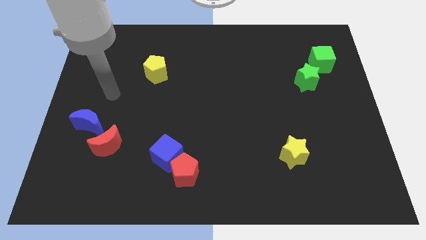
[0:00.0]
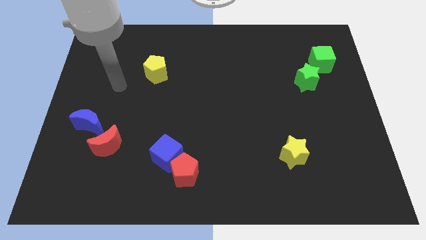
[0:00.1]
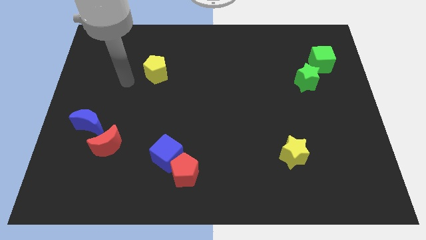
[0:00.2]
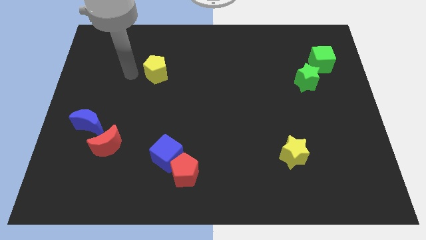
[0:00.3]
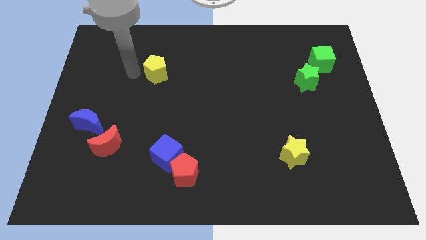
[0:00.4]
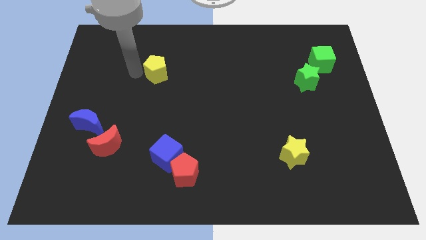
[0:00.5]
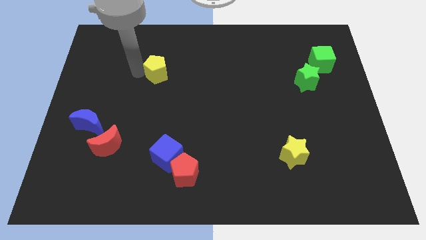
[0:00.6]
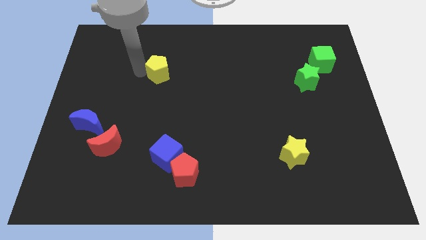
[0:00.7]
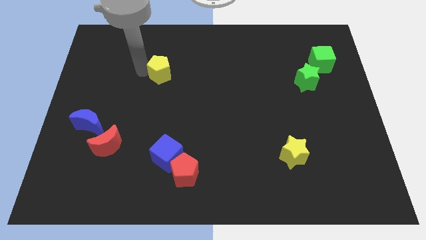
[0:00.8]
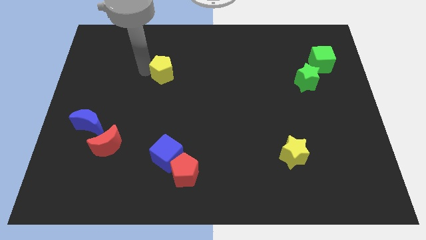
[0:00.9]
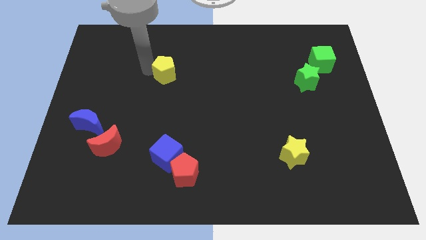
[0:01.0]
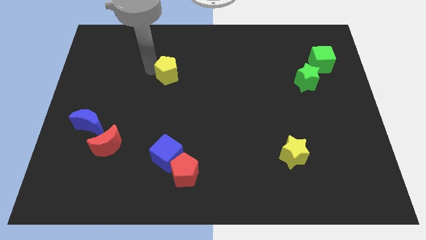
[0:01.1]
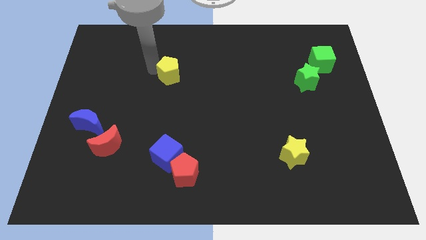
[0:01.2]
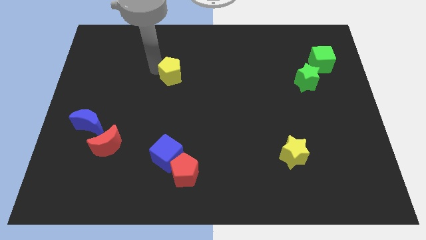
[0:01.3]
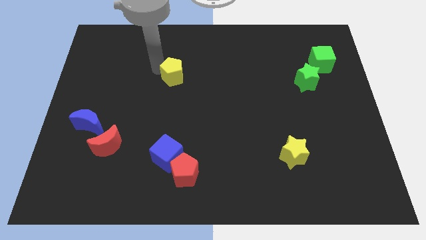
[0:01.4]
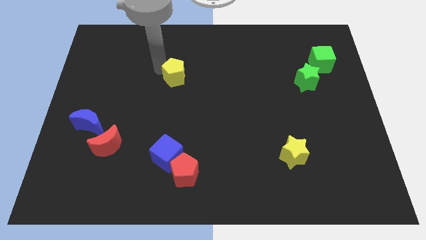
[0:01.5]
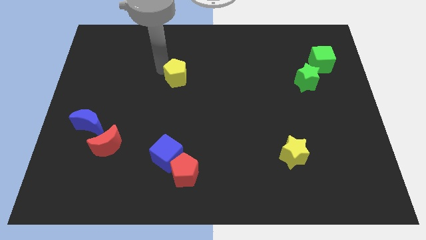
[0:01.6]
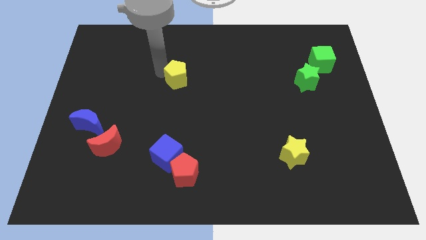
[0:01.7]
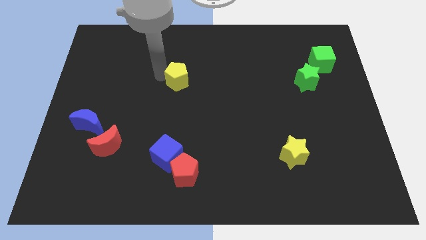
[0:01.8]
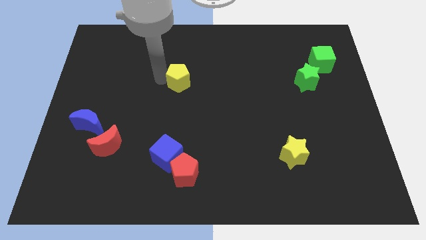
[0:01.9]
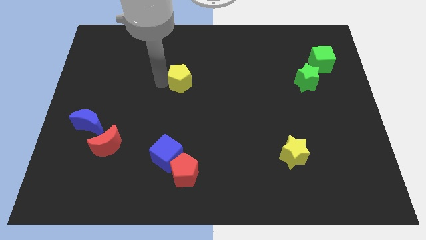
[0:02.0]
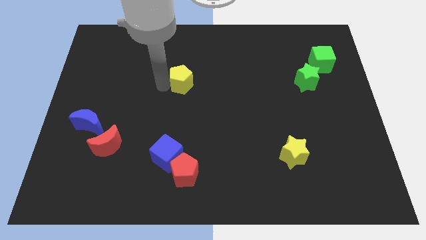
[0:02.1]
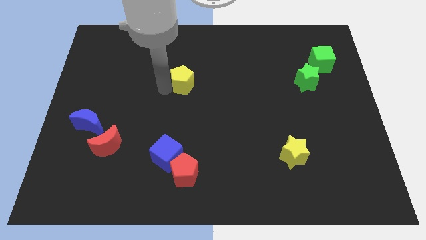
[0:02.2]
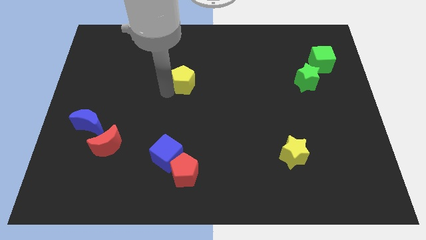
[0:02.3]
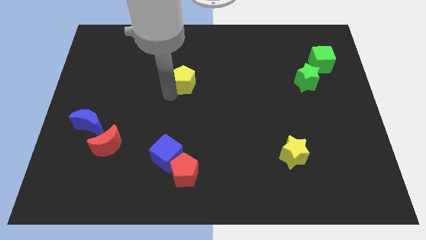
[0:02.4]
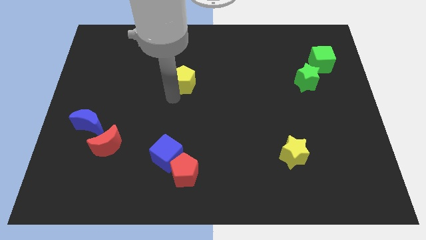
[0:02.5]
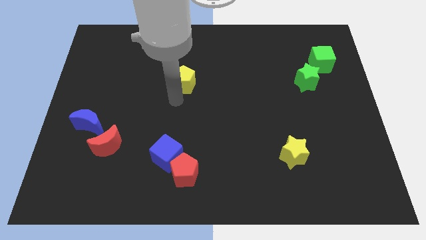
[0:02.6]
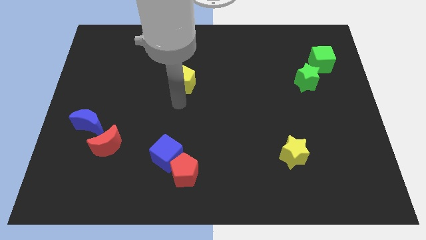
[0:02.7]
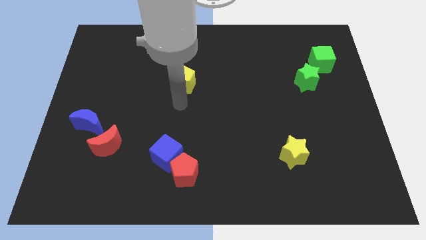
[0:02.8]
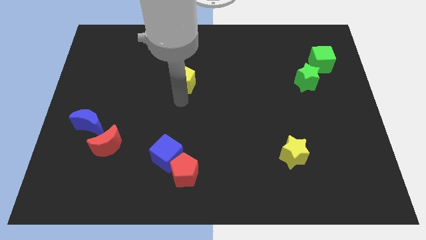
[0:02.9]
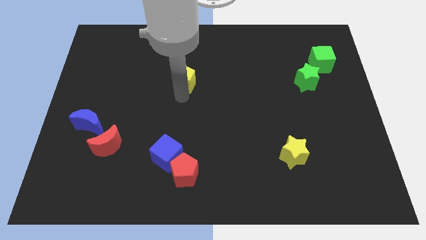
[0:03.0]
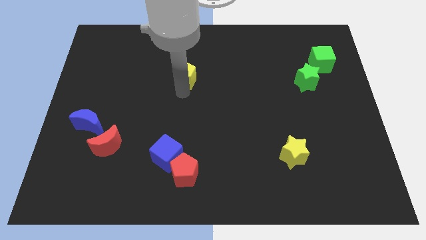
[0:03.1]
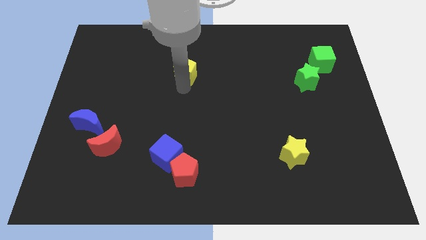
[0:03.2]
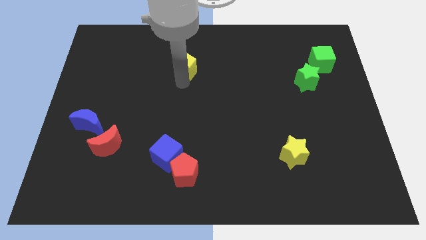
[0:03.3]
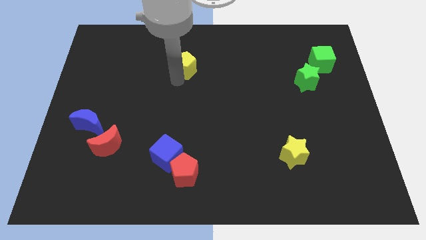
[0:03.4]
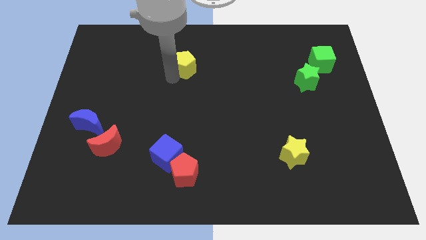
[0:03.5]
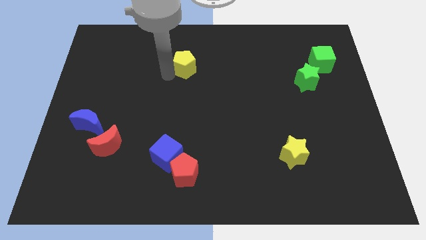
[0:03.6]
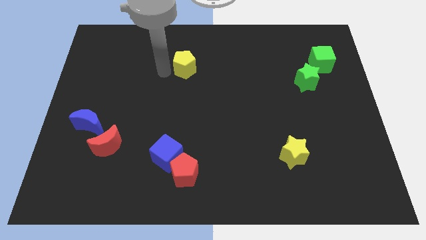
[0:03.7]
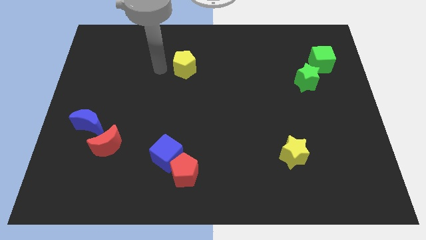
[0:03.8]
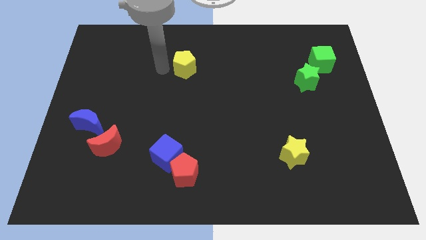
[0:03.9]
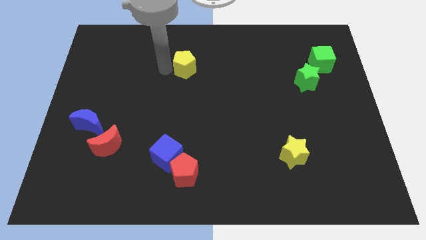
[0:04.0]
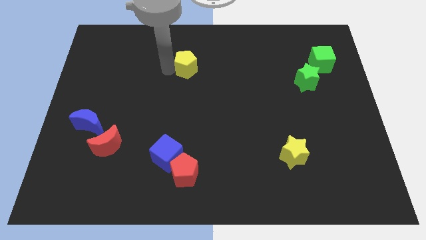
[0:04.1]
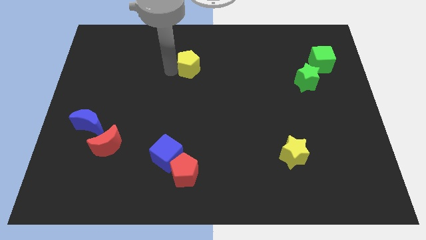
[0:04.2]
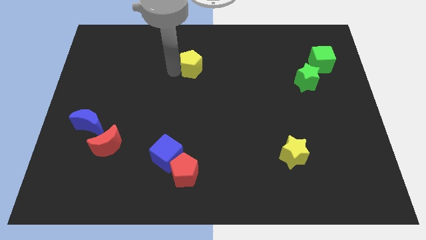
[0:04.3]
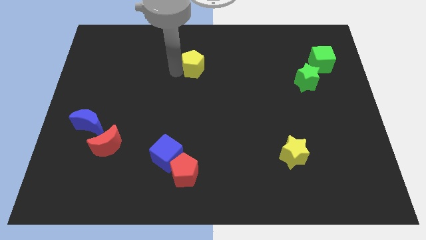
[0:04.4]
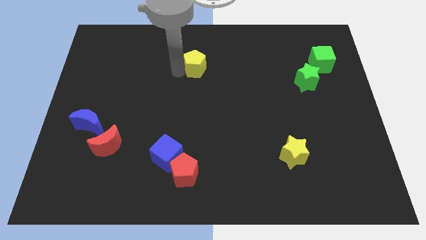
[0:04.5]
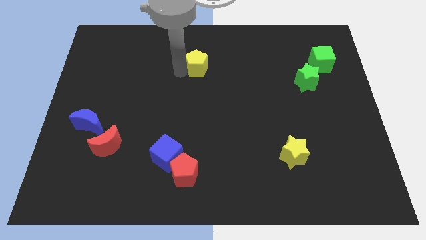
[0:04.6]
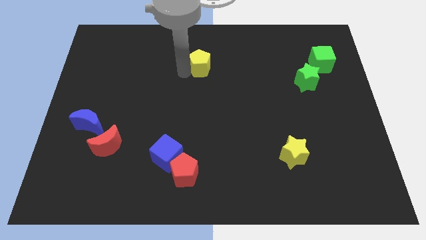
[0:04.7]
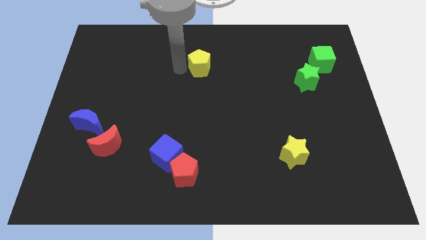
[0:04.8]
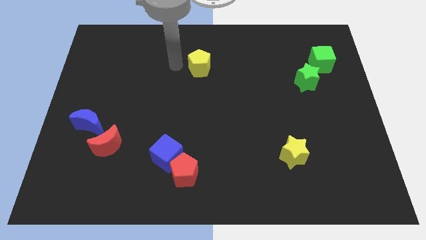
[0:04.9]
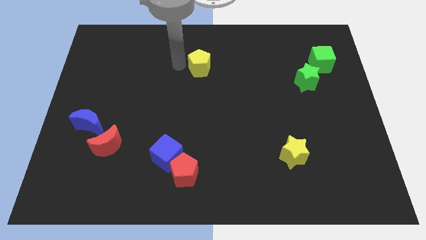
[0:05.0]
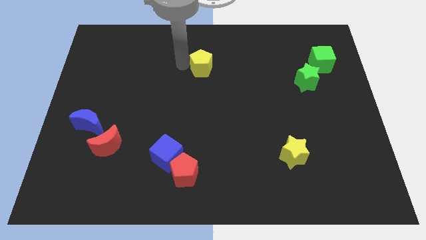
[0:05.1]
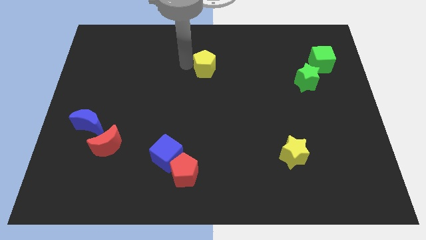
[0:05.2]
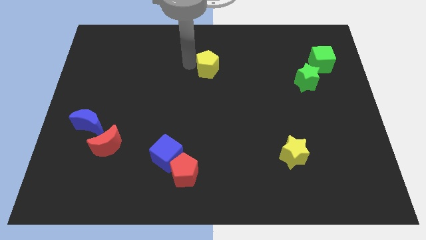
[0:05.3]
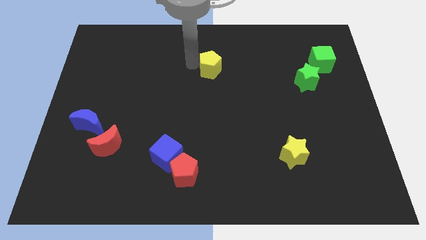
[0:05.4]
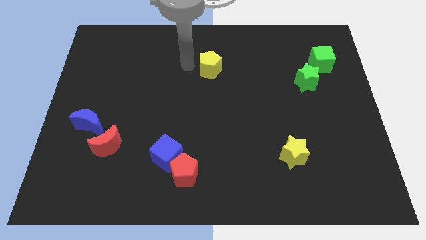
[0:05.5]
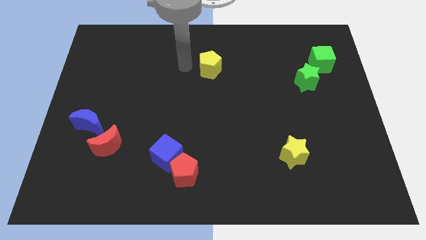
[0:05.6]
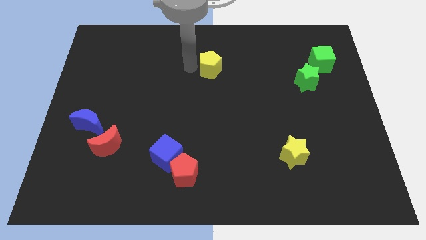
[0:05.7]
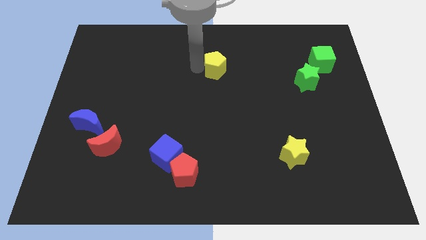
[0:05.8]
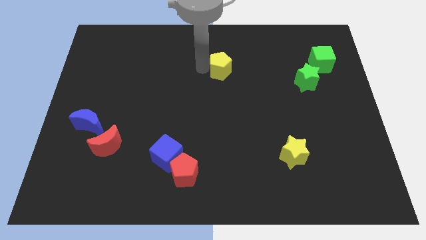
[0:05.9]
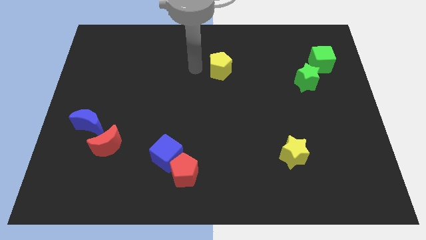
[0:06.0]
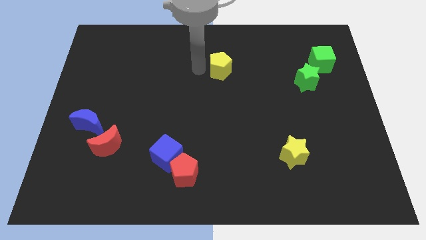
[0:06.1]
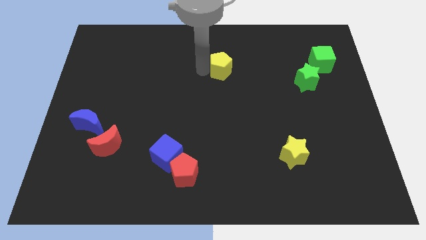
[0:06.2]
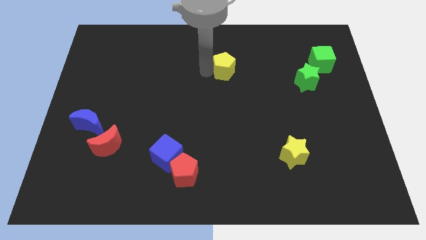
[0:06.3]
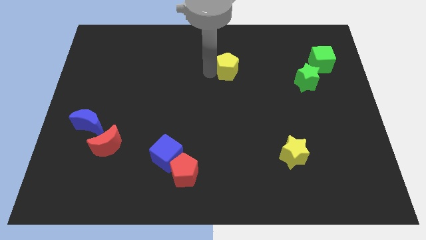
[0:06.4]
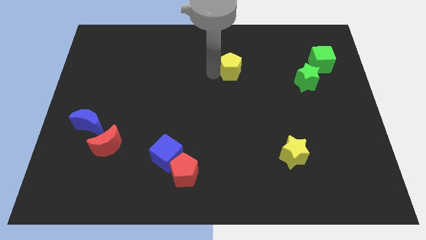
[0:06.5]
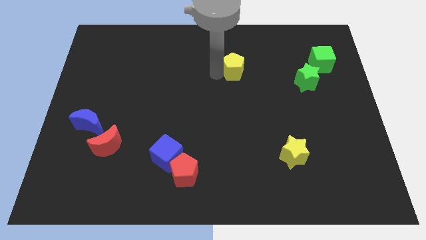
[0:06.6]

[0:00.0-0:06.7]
push the yellow pentagon right

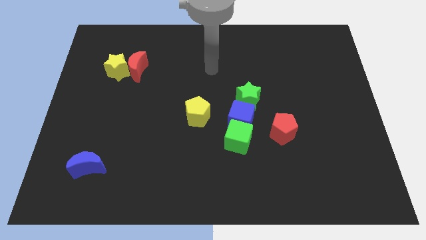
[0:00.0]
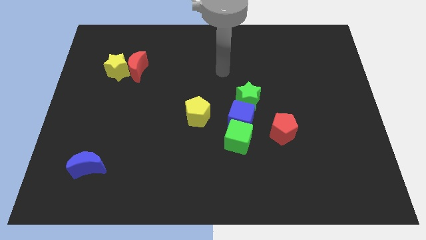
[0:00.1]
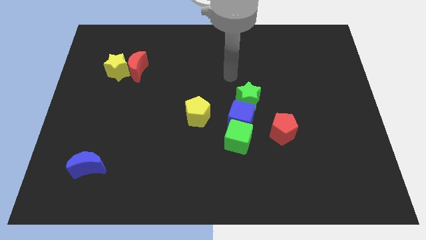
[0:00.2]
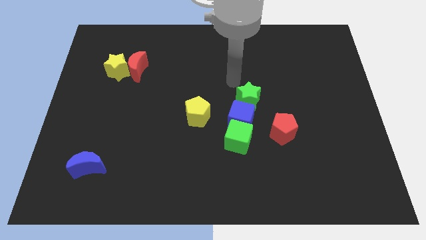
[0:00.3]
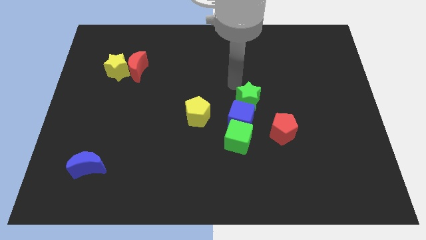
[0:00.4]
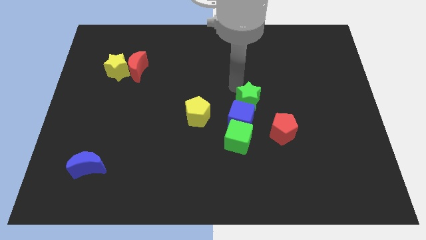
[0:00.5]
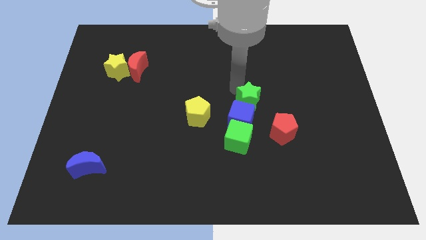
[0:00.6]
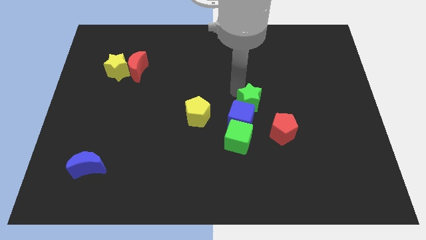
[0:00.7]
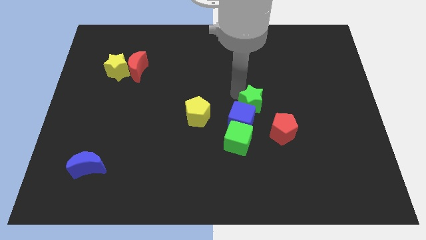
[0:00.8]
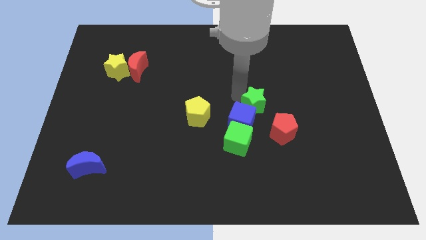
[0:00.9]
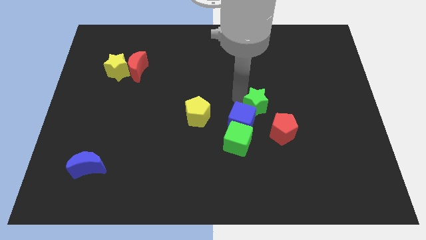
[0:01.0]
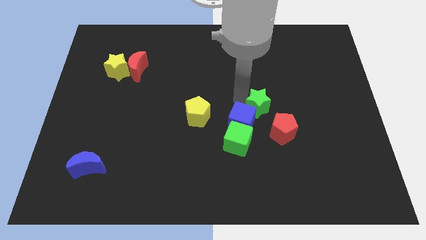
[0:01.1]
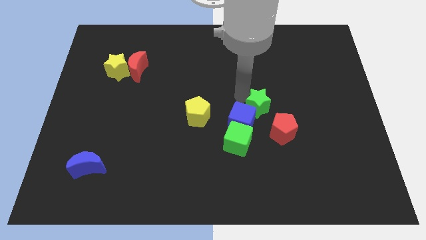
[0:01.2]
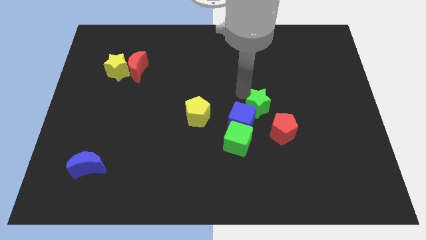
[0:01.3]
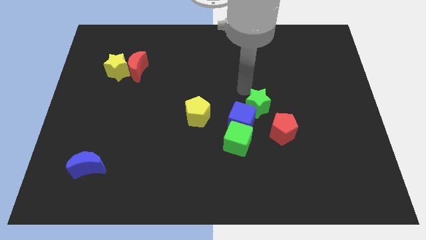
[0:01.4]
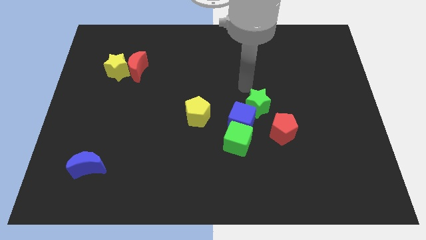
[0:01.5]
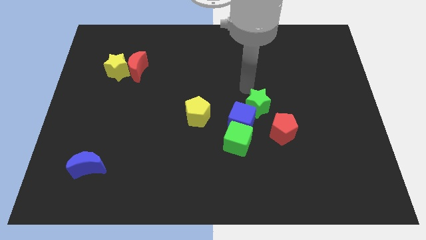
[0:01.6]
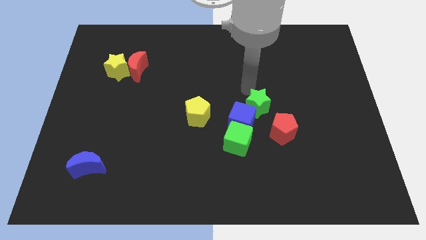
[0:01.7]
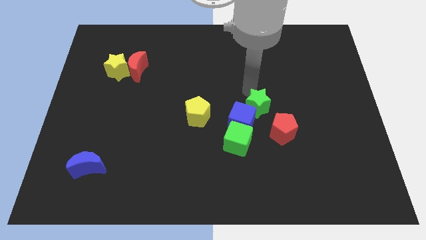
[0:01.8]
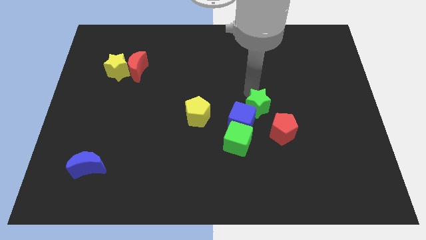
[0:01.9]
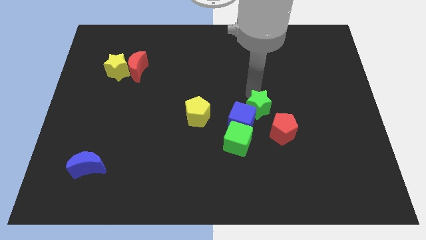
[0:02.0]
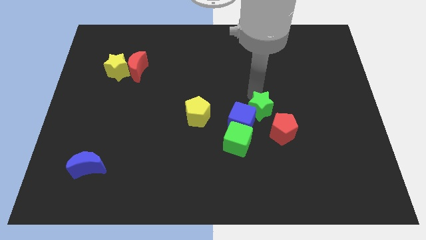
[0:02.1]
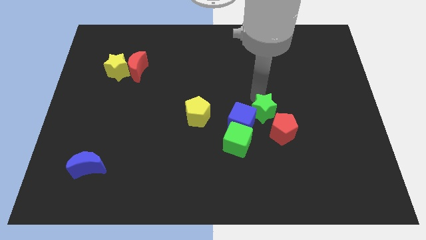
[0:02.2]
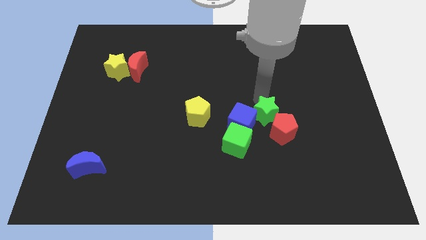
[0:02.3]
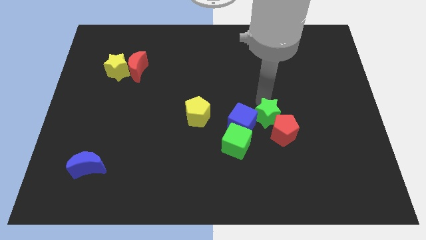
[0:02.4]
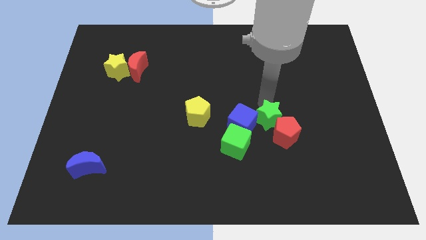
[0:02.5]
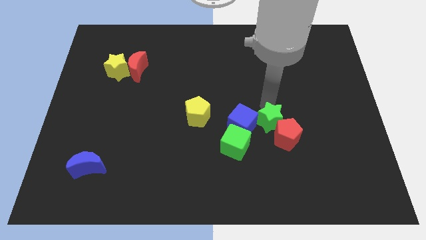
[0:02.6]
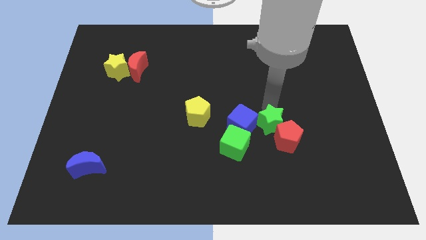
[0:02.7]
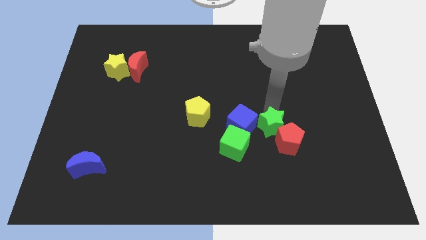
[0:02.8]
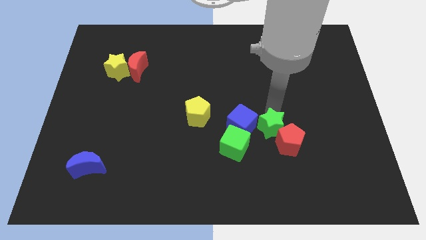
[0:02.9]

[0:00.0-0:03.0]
move the green star a little down
